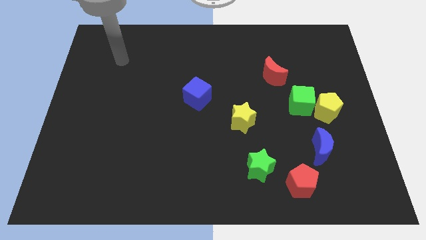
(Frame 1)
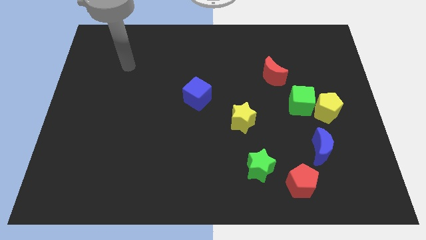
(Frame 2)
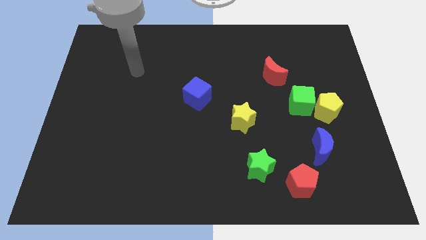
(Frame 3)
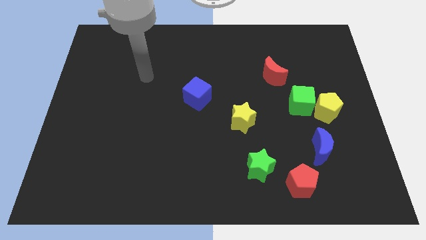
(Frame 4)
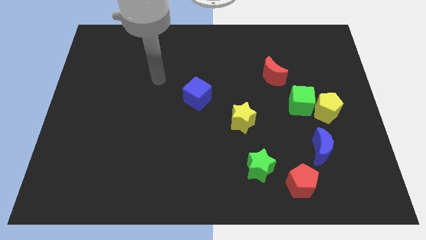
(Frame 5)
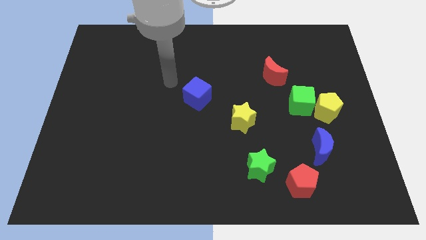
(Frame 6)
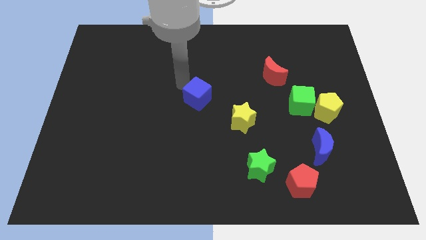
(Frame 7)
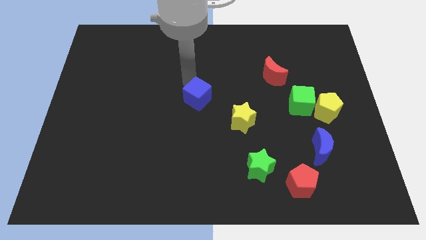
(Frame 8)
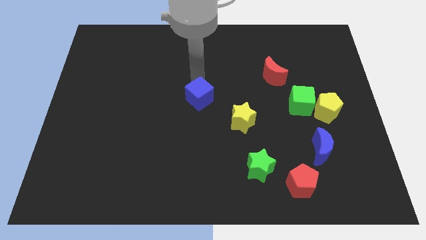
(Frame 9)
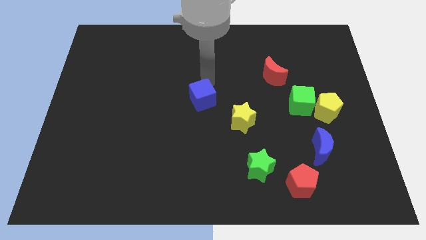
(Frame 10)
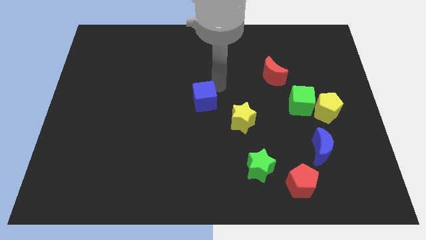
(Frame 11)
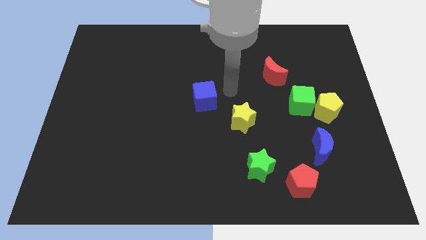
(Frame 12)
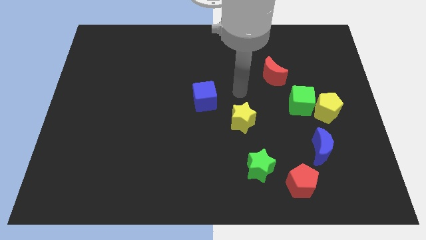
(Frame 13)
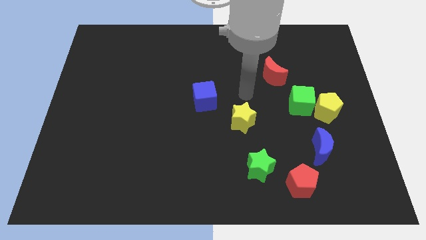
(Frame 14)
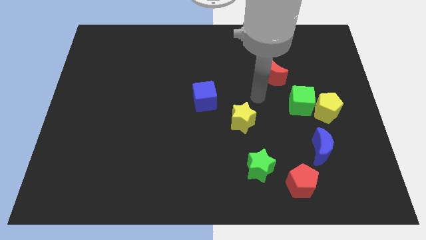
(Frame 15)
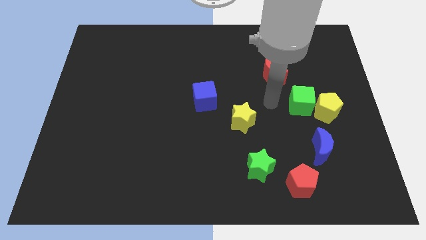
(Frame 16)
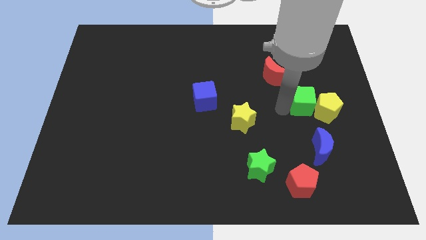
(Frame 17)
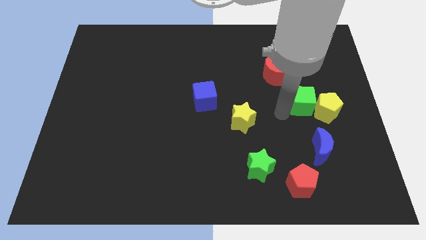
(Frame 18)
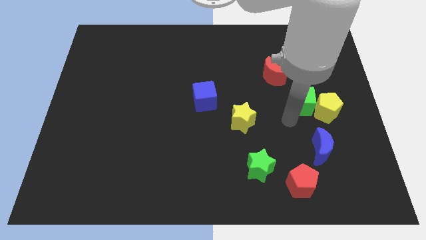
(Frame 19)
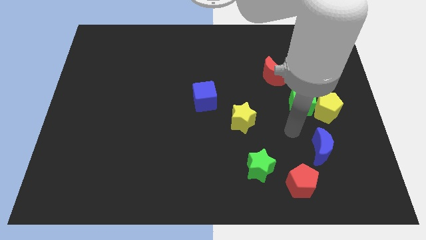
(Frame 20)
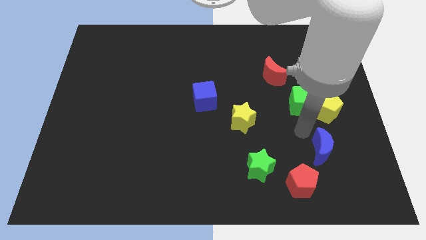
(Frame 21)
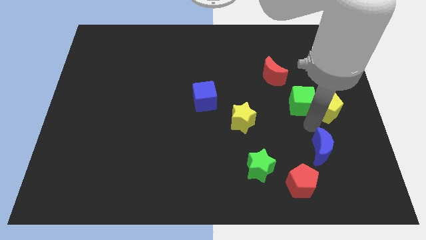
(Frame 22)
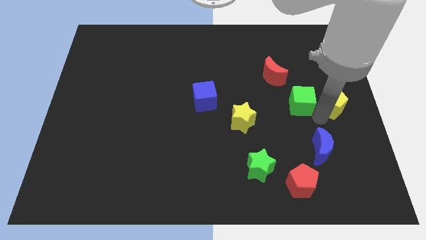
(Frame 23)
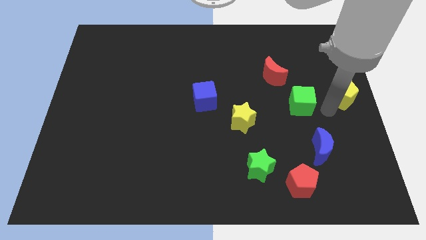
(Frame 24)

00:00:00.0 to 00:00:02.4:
move the green cube away from the yellow pentagon

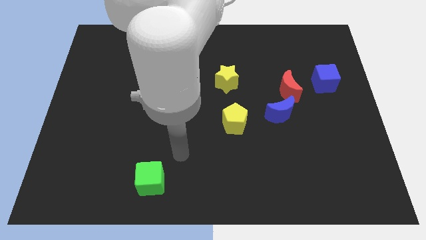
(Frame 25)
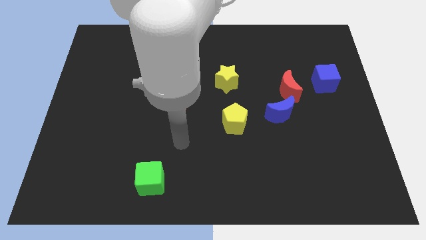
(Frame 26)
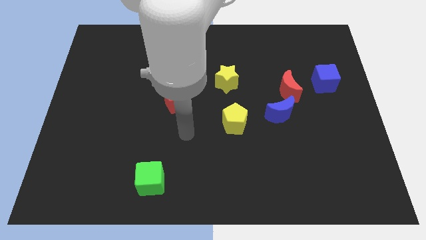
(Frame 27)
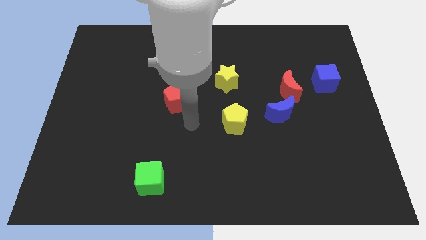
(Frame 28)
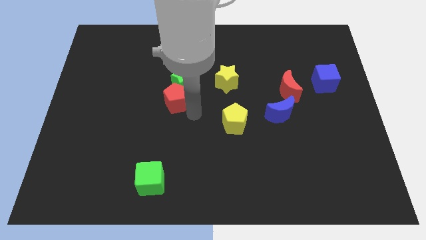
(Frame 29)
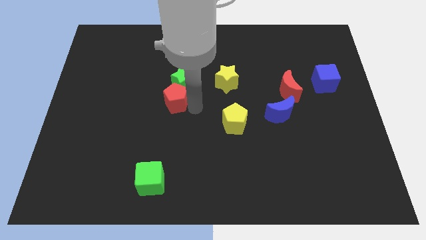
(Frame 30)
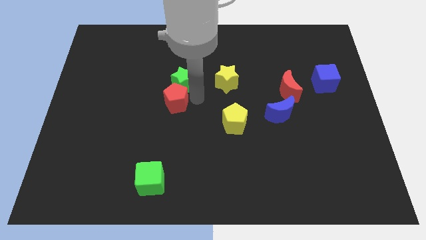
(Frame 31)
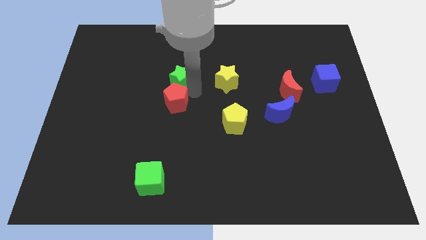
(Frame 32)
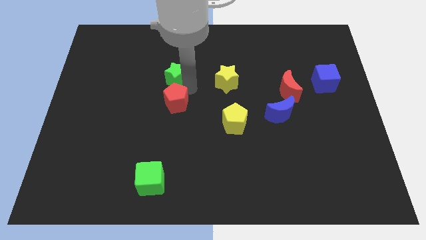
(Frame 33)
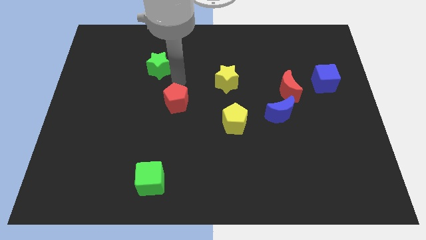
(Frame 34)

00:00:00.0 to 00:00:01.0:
separate the red pentagon from the green star

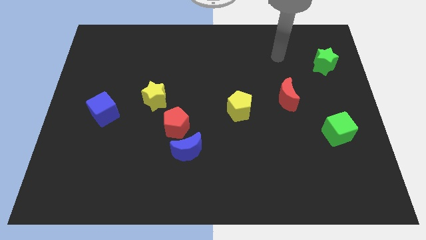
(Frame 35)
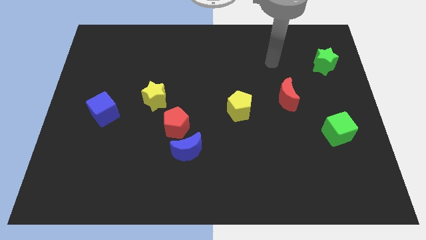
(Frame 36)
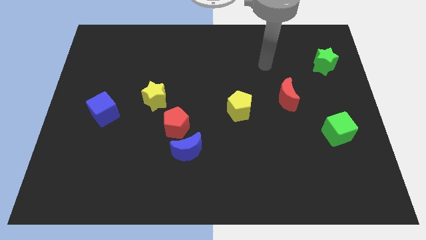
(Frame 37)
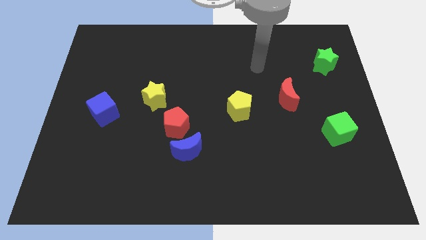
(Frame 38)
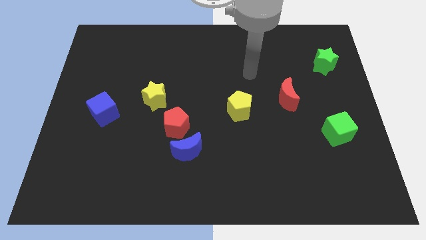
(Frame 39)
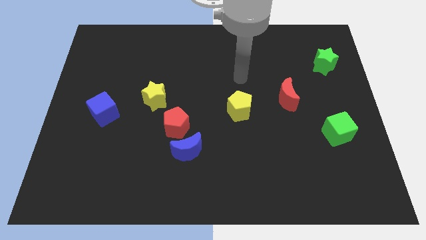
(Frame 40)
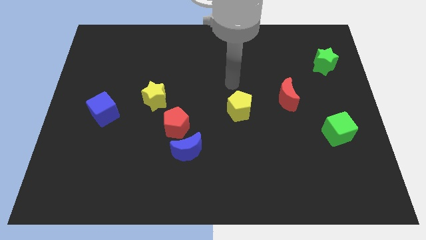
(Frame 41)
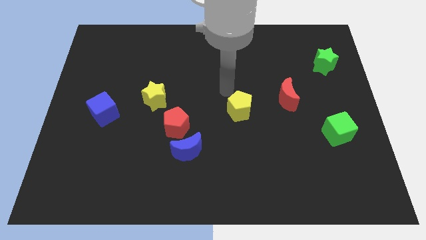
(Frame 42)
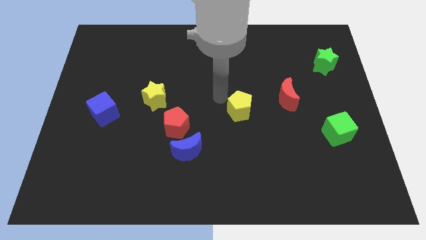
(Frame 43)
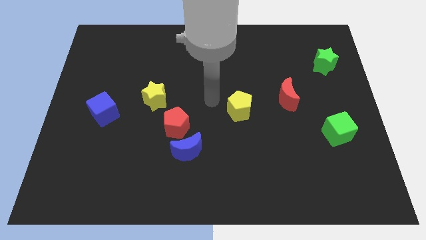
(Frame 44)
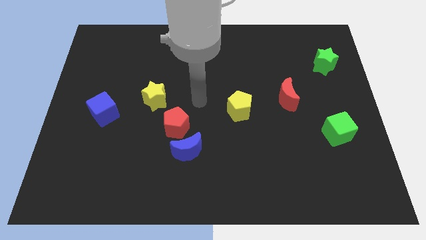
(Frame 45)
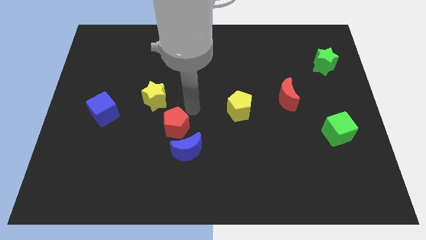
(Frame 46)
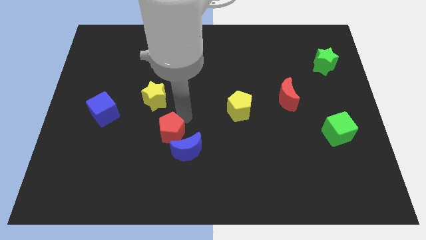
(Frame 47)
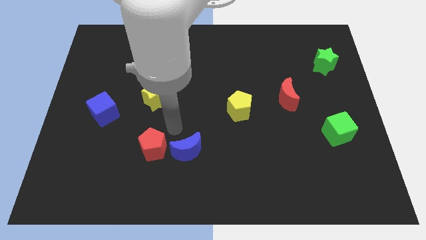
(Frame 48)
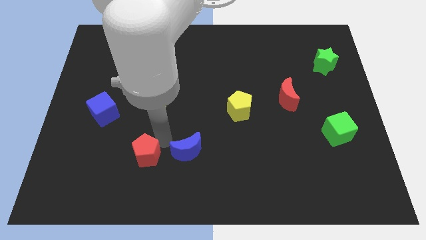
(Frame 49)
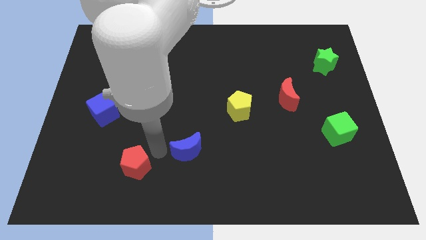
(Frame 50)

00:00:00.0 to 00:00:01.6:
move the blue moon away from the red pentagon

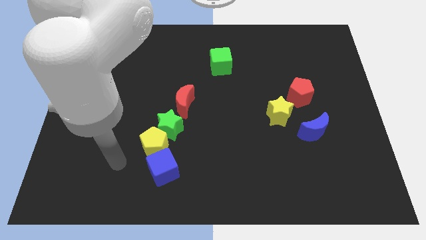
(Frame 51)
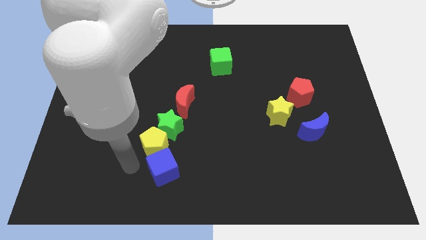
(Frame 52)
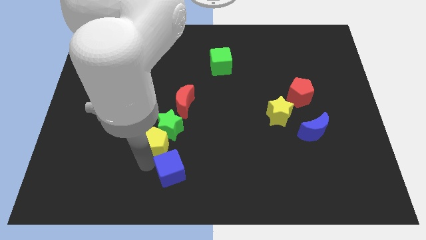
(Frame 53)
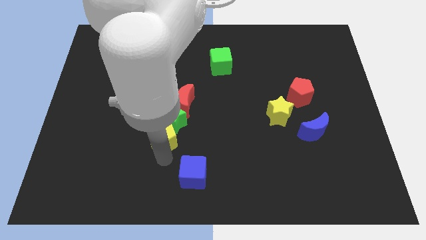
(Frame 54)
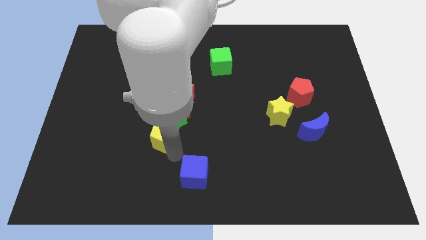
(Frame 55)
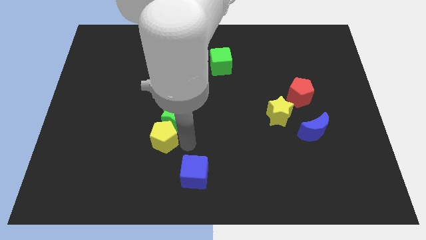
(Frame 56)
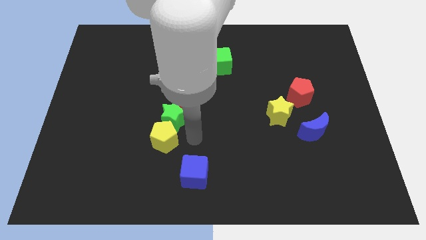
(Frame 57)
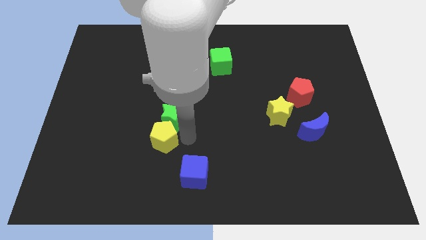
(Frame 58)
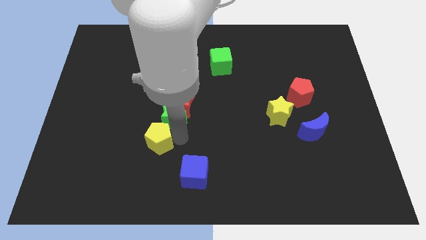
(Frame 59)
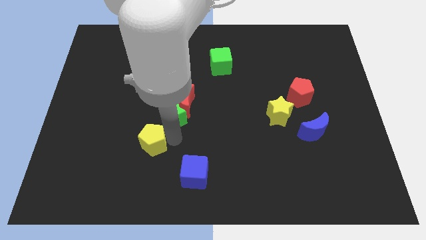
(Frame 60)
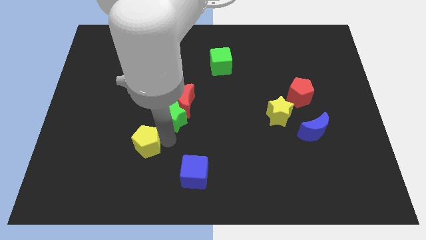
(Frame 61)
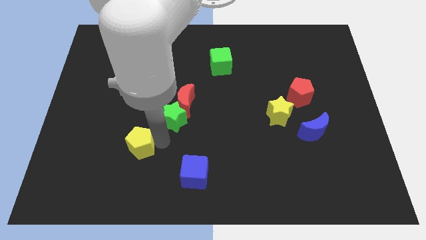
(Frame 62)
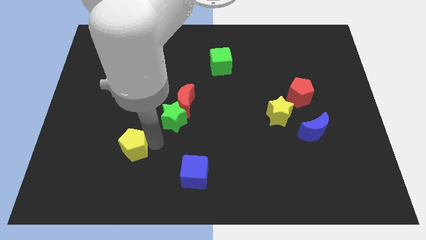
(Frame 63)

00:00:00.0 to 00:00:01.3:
pull the yellow pentagon apart from the green star and blue cube

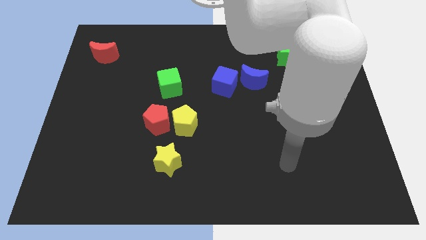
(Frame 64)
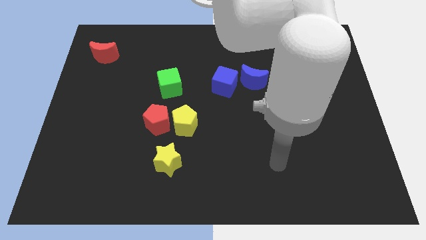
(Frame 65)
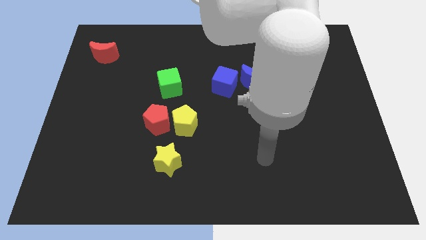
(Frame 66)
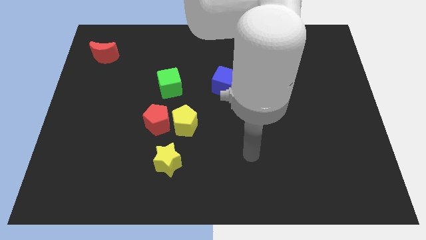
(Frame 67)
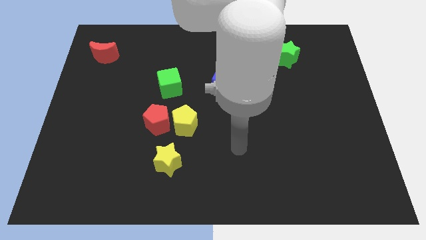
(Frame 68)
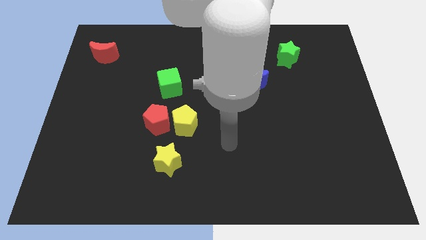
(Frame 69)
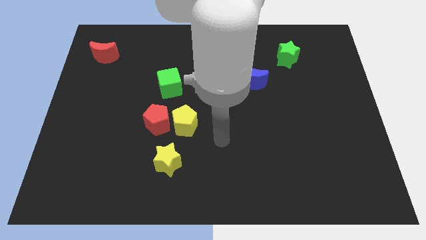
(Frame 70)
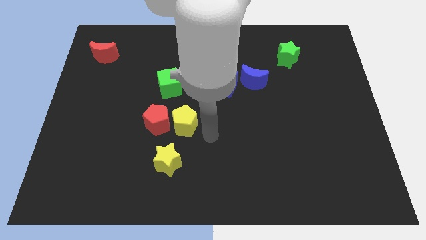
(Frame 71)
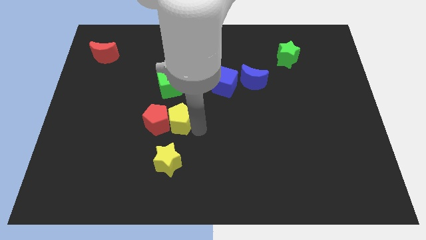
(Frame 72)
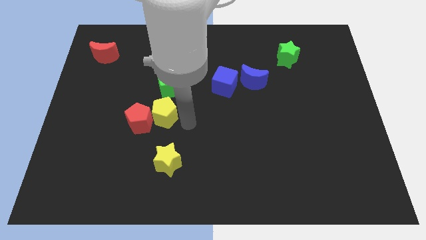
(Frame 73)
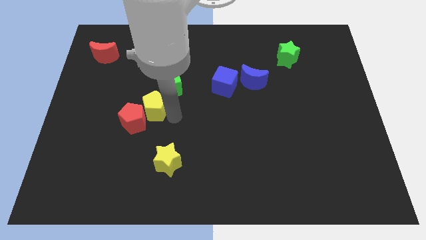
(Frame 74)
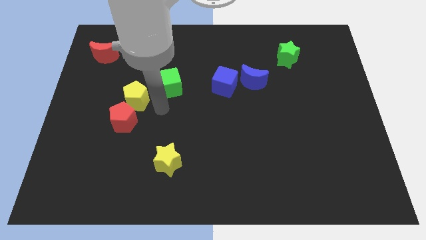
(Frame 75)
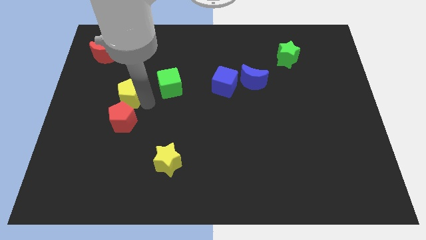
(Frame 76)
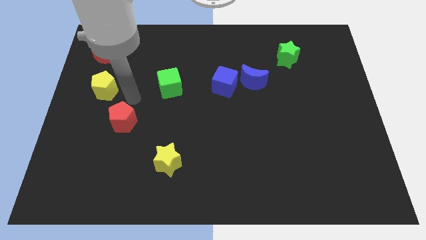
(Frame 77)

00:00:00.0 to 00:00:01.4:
separate the red pentagon from the yellow pentagon

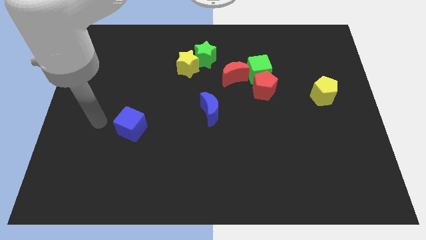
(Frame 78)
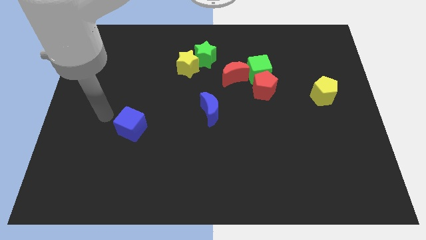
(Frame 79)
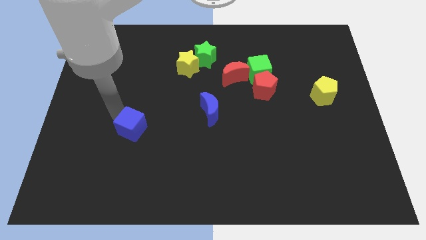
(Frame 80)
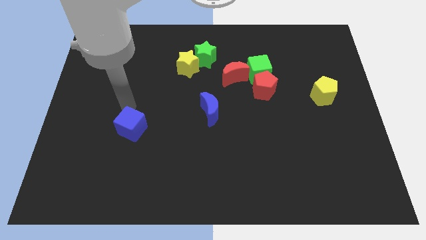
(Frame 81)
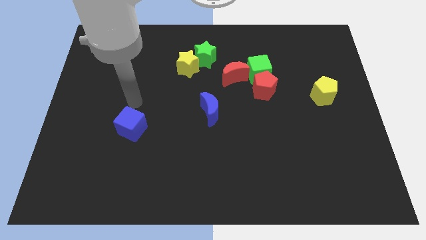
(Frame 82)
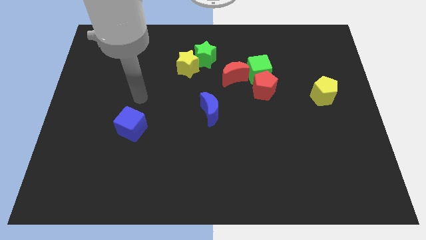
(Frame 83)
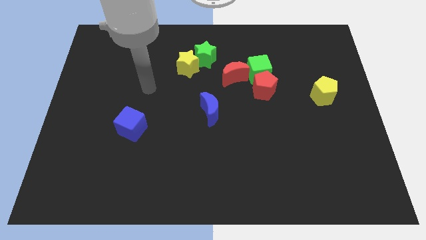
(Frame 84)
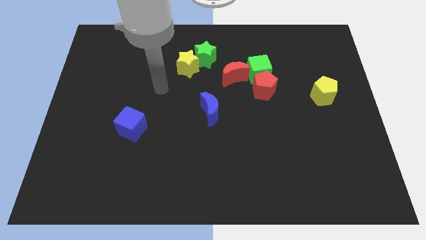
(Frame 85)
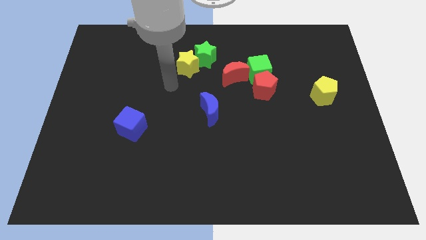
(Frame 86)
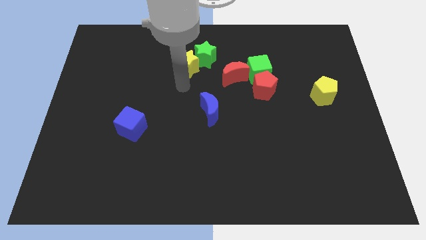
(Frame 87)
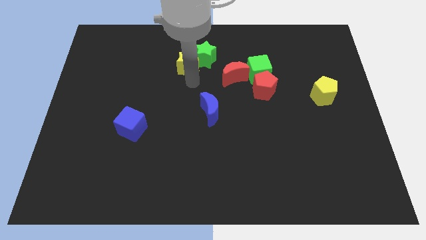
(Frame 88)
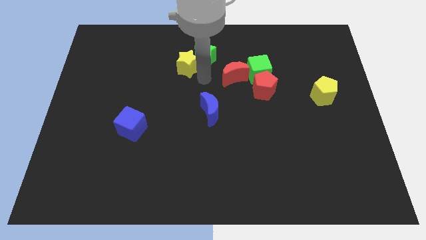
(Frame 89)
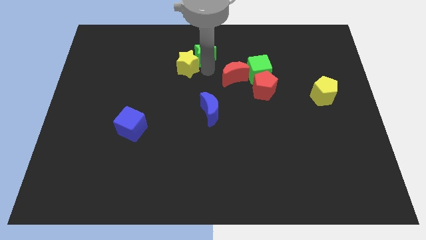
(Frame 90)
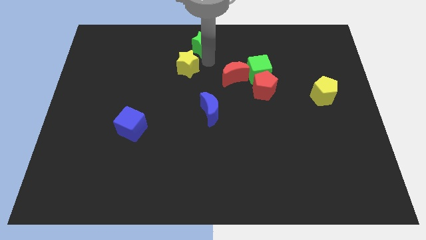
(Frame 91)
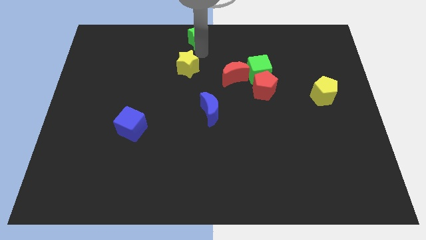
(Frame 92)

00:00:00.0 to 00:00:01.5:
pull the yellow star apart from the green star
